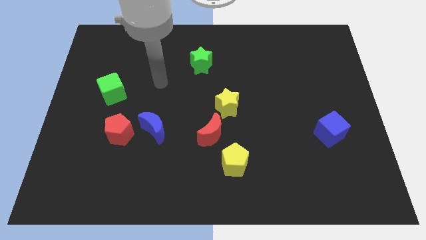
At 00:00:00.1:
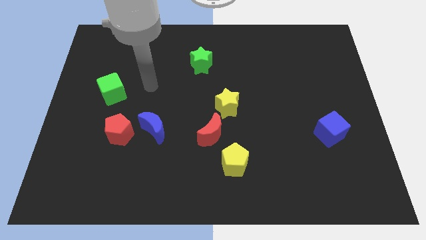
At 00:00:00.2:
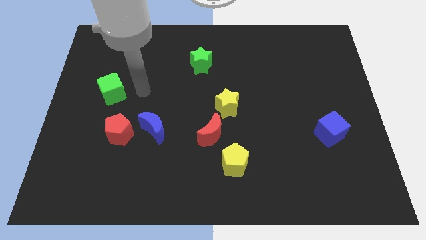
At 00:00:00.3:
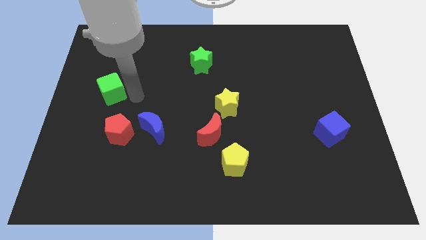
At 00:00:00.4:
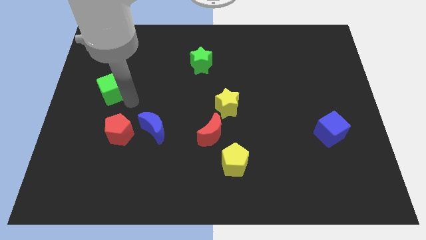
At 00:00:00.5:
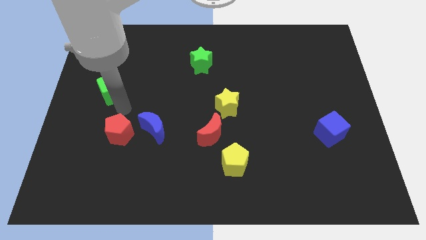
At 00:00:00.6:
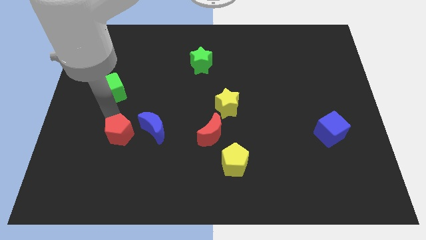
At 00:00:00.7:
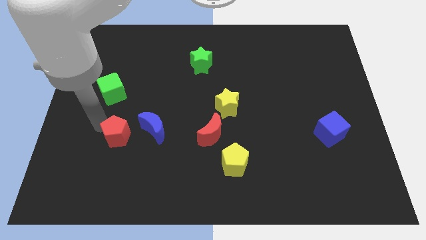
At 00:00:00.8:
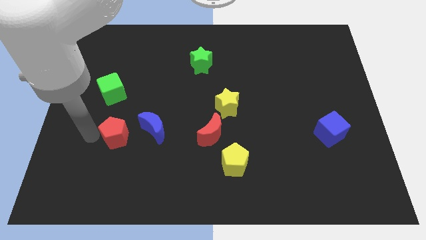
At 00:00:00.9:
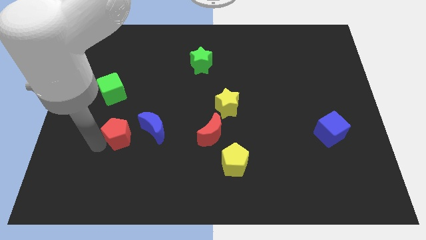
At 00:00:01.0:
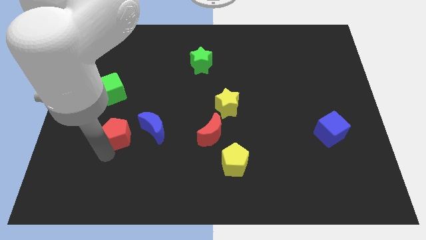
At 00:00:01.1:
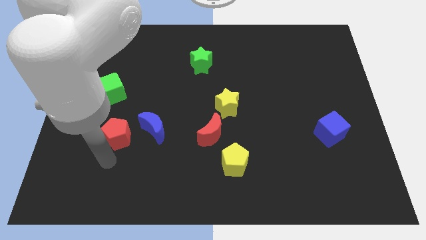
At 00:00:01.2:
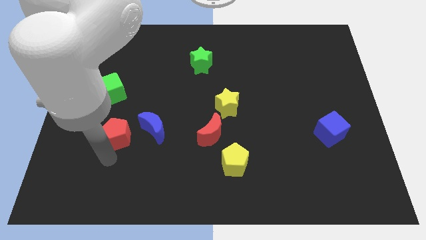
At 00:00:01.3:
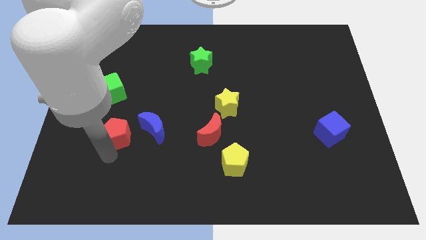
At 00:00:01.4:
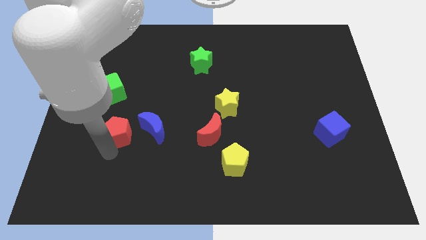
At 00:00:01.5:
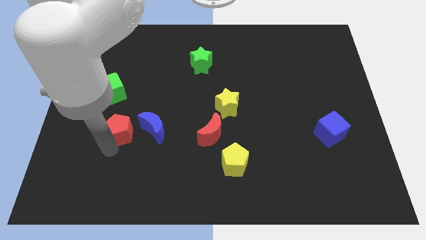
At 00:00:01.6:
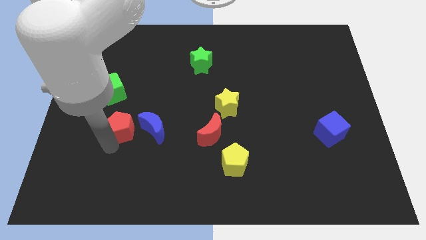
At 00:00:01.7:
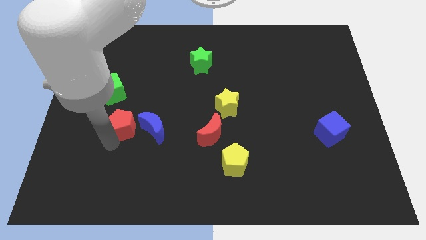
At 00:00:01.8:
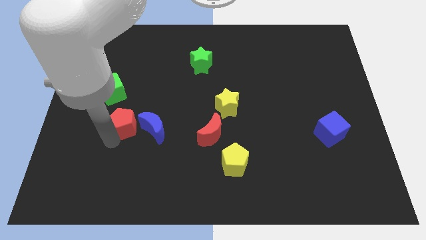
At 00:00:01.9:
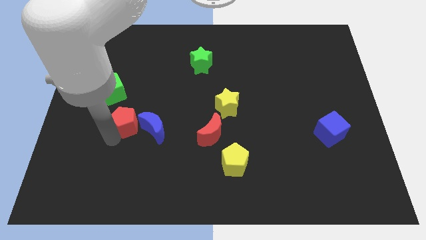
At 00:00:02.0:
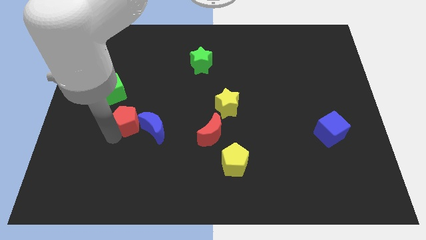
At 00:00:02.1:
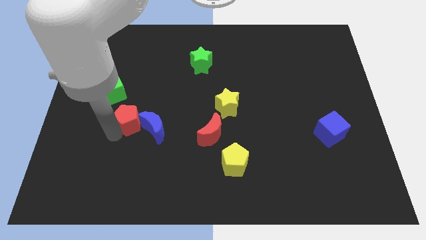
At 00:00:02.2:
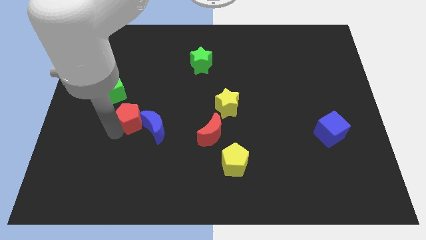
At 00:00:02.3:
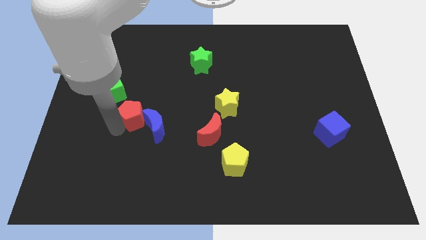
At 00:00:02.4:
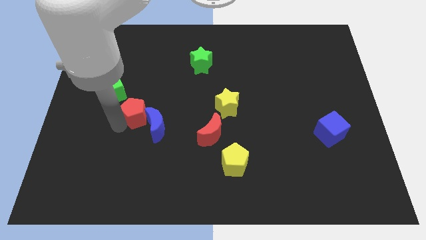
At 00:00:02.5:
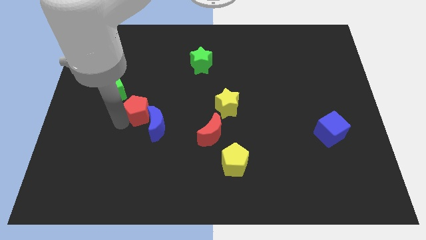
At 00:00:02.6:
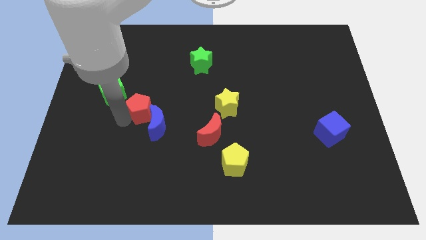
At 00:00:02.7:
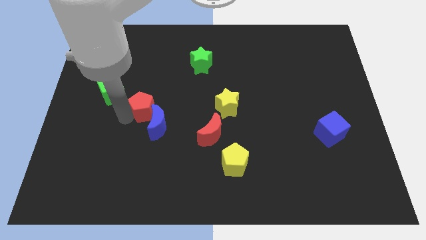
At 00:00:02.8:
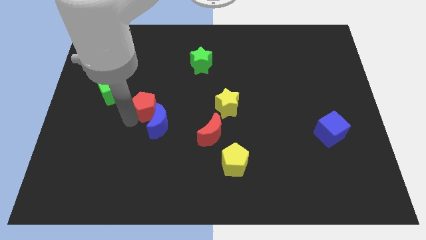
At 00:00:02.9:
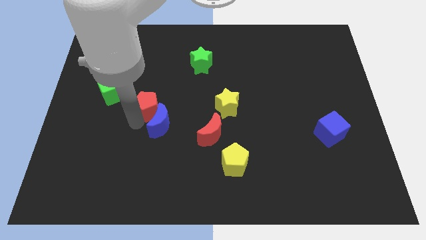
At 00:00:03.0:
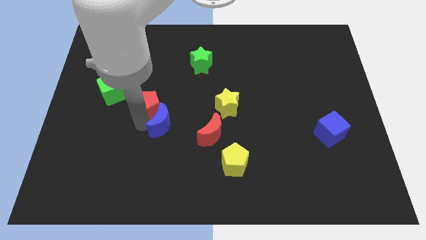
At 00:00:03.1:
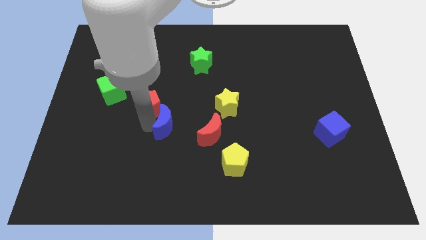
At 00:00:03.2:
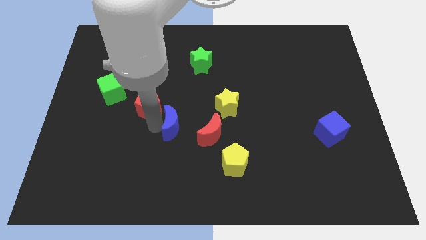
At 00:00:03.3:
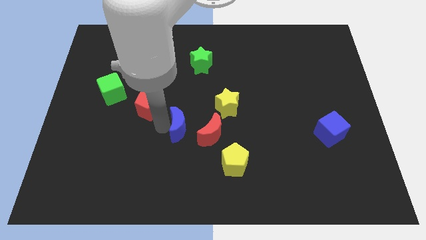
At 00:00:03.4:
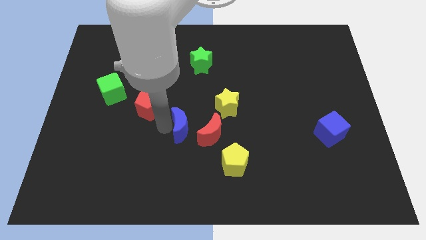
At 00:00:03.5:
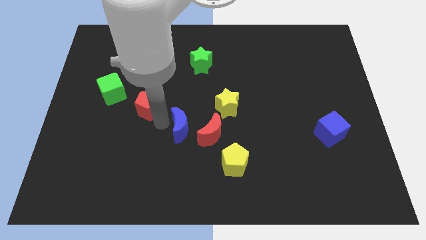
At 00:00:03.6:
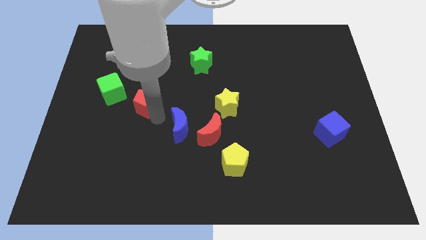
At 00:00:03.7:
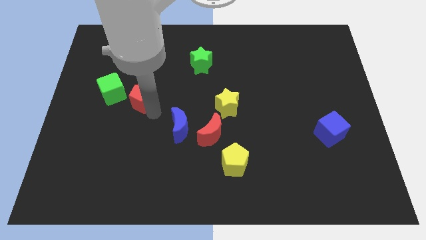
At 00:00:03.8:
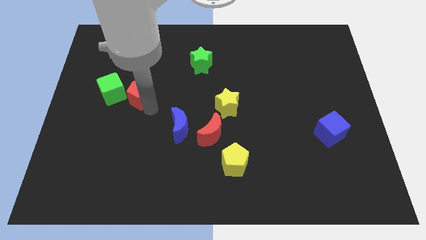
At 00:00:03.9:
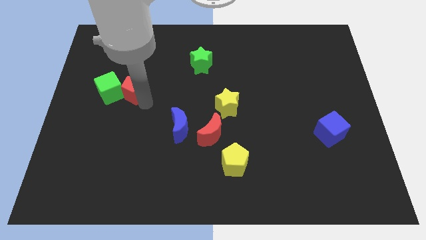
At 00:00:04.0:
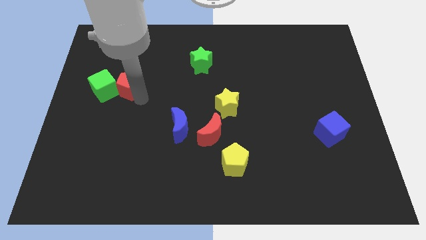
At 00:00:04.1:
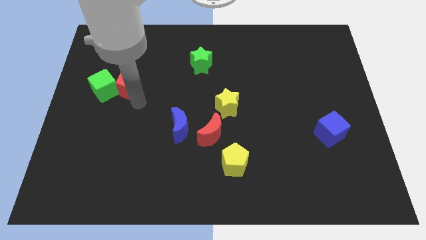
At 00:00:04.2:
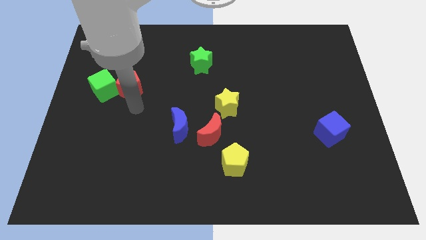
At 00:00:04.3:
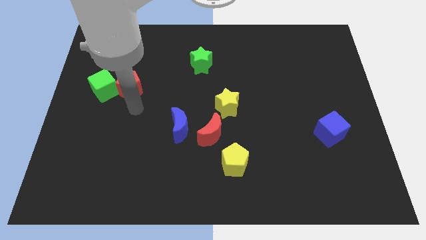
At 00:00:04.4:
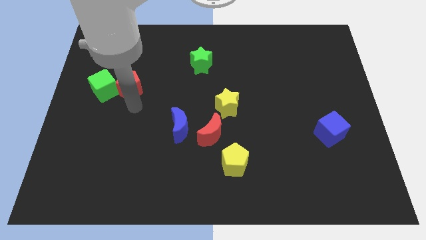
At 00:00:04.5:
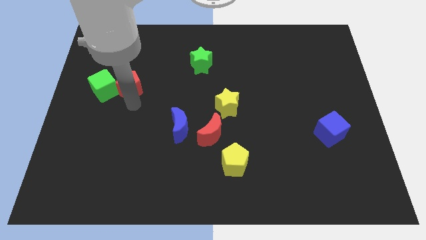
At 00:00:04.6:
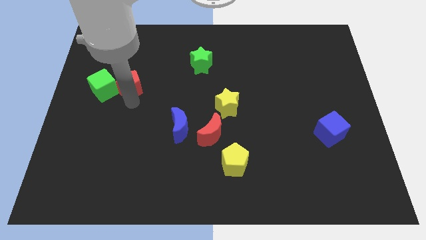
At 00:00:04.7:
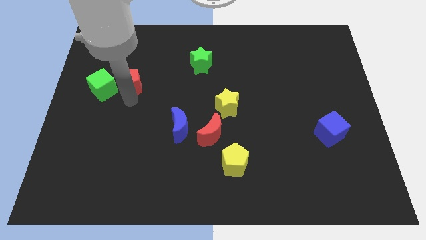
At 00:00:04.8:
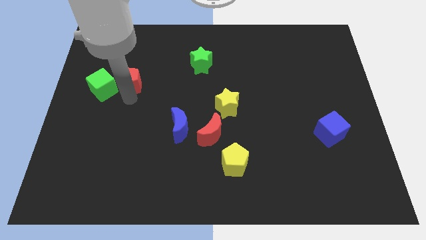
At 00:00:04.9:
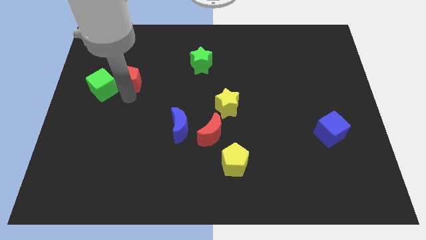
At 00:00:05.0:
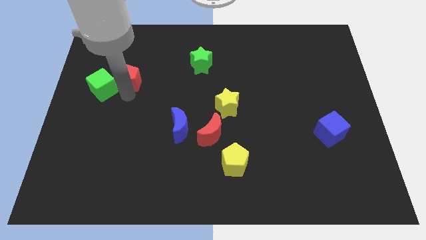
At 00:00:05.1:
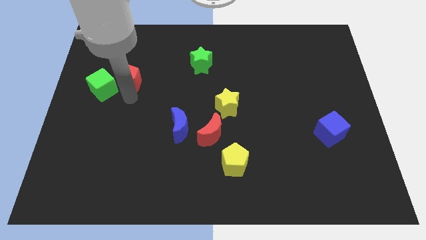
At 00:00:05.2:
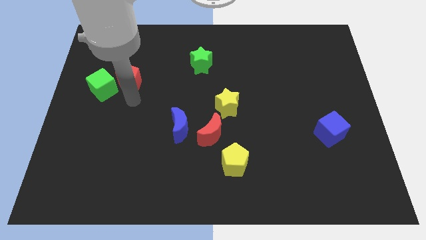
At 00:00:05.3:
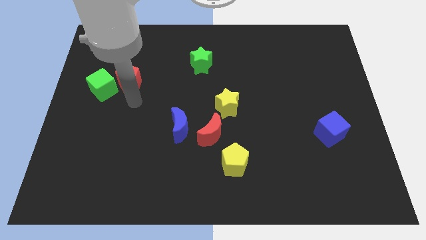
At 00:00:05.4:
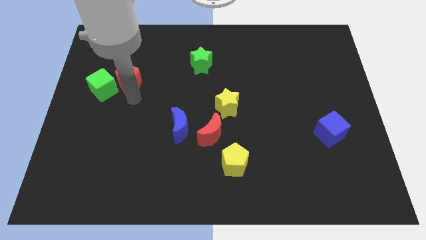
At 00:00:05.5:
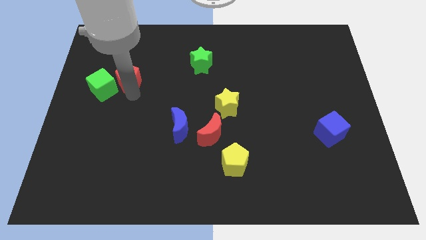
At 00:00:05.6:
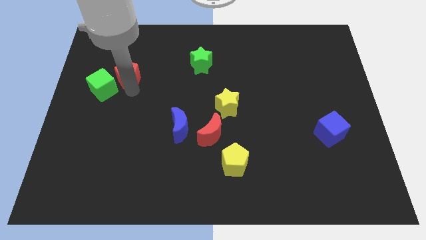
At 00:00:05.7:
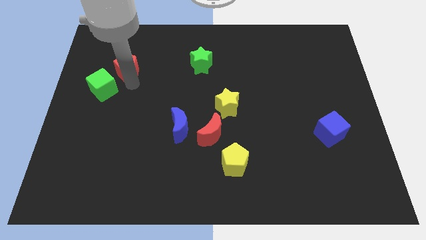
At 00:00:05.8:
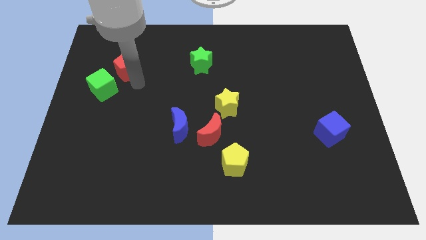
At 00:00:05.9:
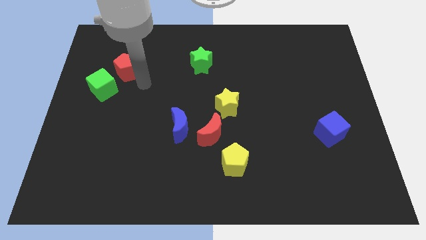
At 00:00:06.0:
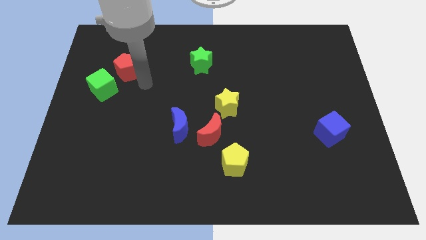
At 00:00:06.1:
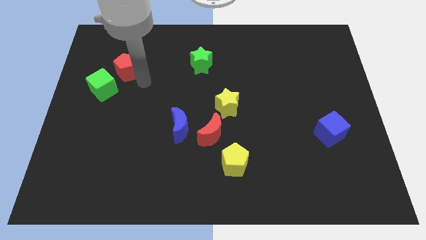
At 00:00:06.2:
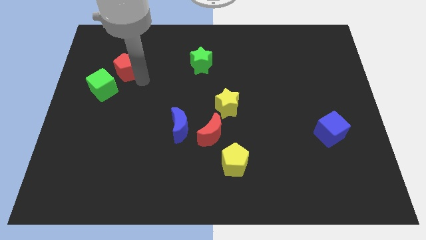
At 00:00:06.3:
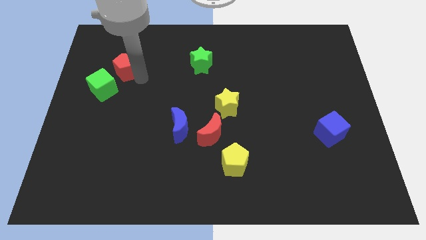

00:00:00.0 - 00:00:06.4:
push the red pentagon above the green cube

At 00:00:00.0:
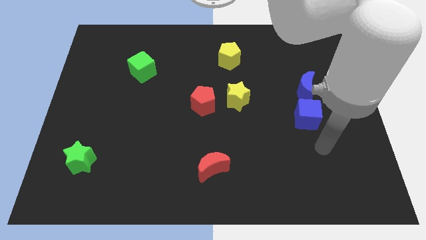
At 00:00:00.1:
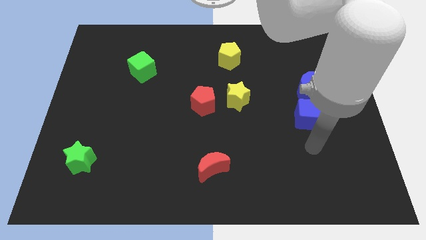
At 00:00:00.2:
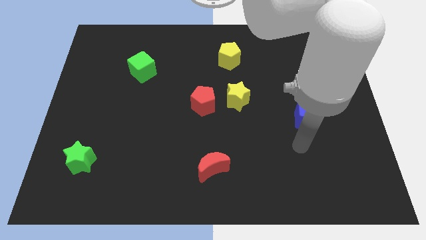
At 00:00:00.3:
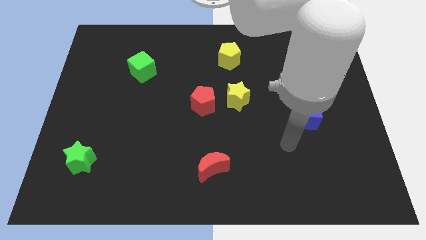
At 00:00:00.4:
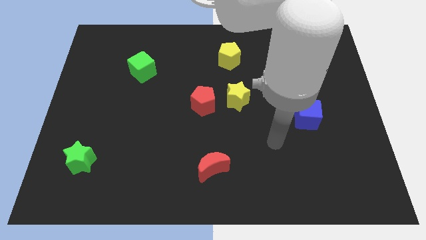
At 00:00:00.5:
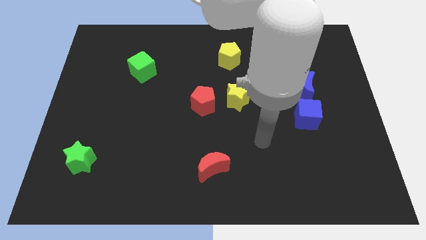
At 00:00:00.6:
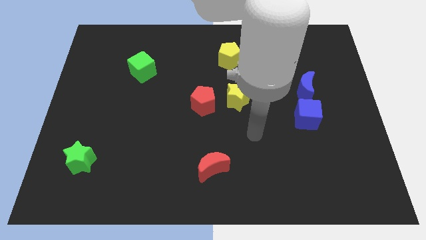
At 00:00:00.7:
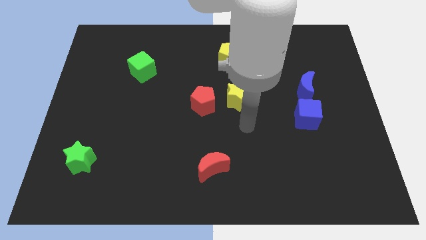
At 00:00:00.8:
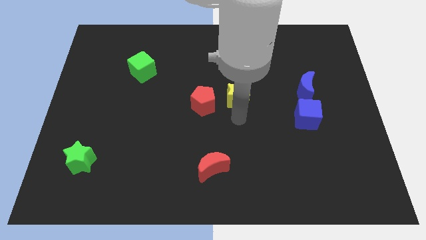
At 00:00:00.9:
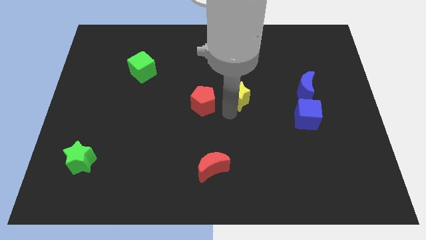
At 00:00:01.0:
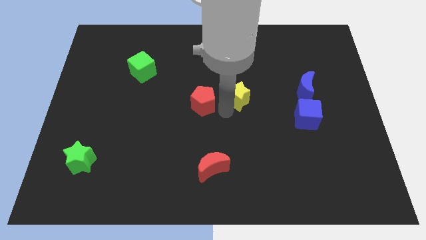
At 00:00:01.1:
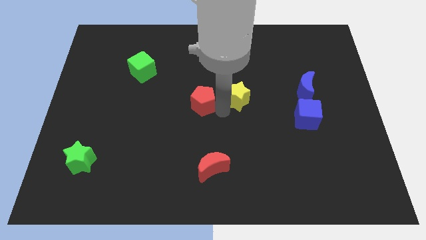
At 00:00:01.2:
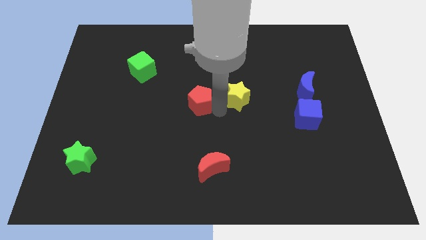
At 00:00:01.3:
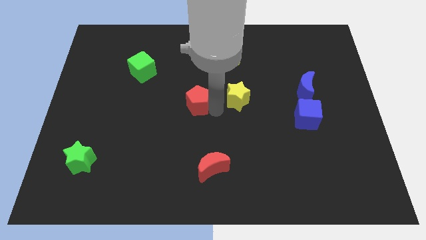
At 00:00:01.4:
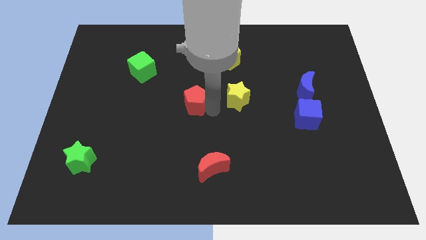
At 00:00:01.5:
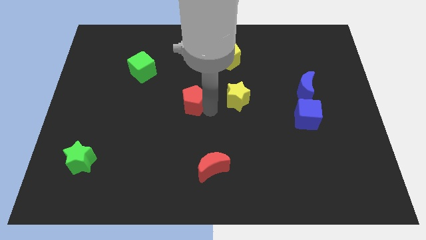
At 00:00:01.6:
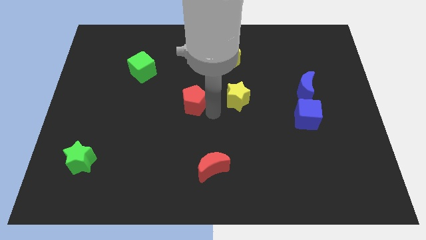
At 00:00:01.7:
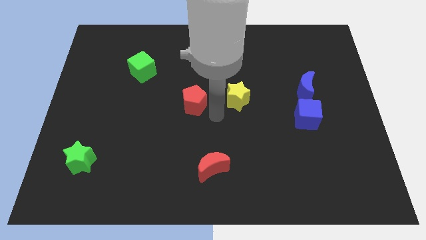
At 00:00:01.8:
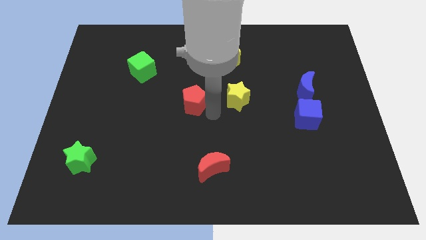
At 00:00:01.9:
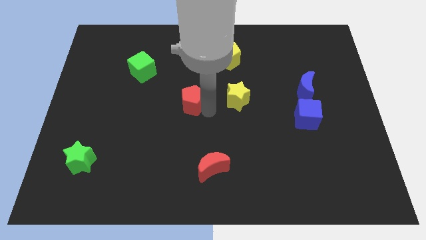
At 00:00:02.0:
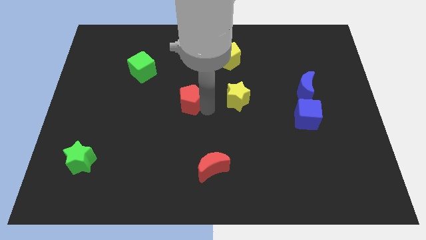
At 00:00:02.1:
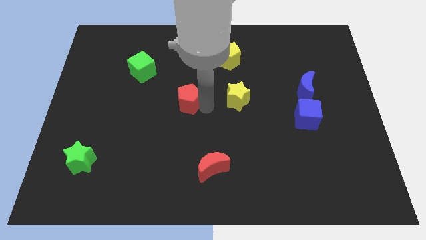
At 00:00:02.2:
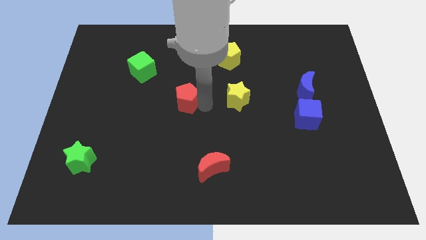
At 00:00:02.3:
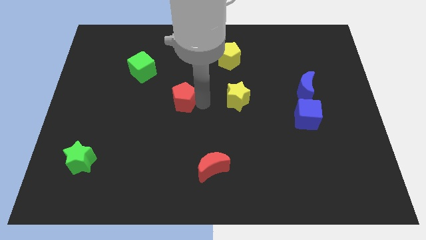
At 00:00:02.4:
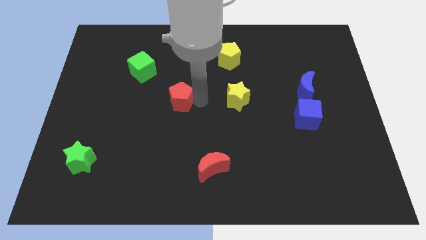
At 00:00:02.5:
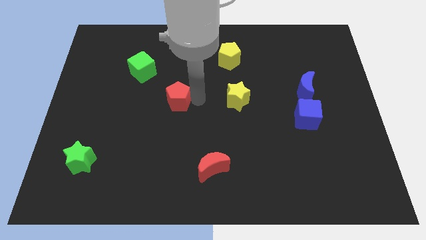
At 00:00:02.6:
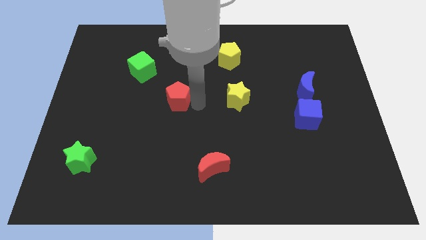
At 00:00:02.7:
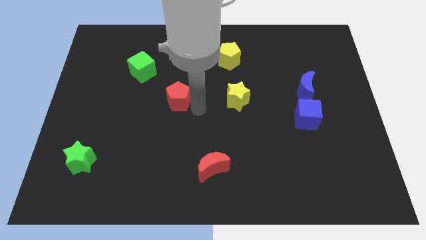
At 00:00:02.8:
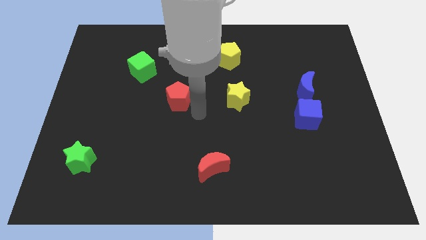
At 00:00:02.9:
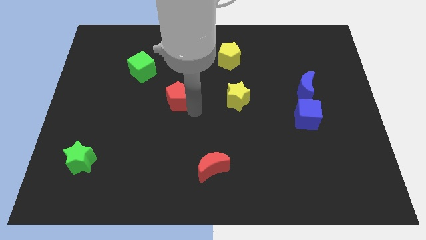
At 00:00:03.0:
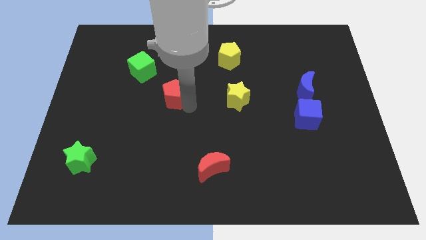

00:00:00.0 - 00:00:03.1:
move the red pentagon to the bottom right side of the green cube
